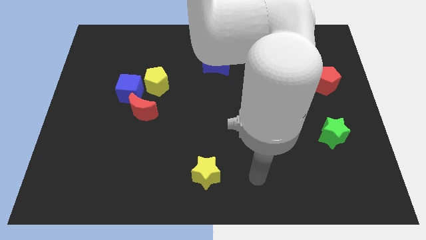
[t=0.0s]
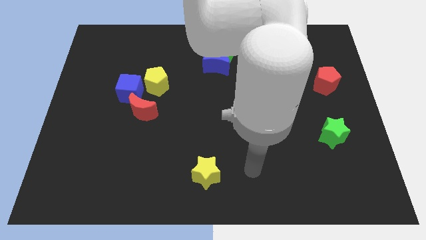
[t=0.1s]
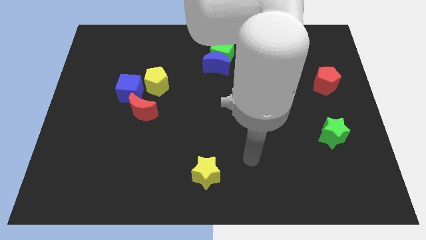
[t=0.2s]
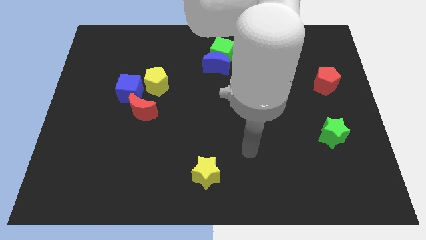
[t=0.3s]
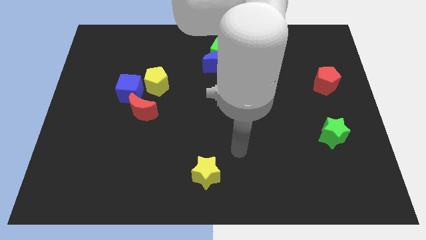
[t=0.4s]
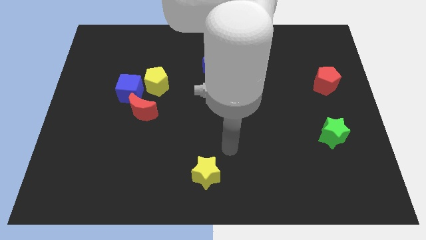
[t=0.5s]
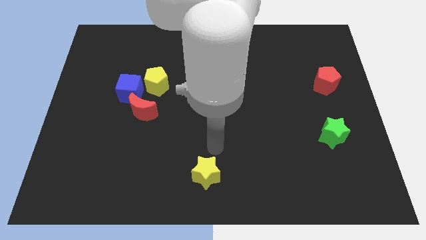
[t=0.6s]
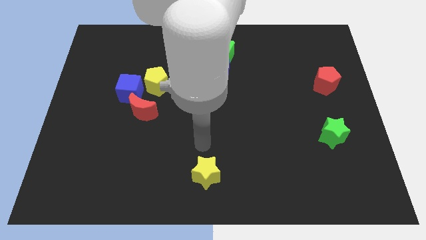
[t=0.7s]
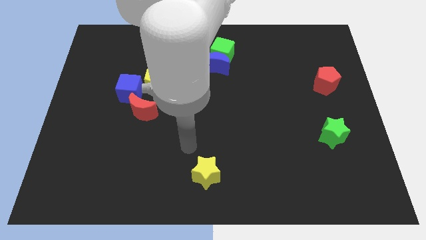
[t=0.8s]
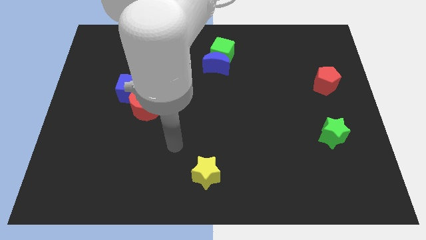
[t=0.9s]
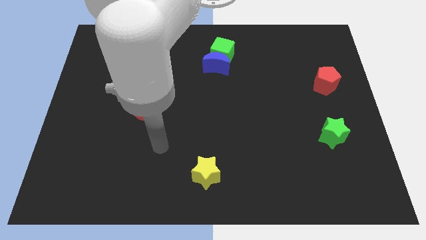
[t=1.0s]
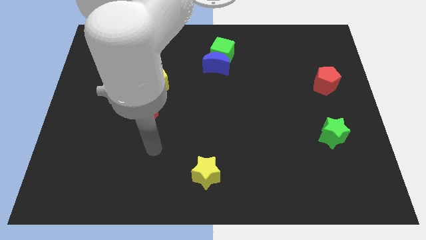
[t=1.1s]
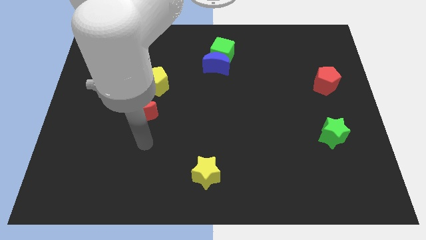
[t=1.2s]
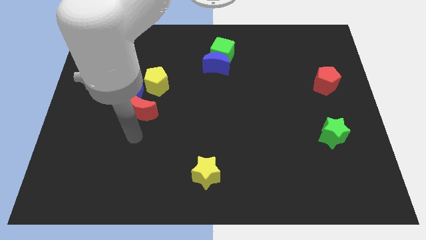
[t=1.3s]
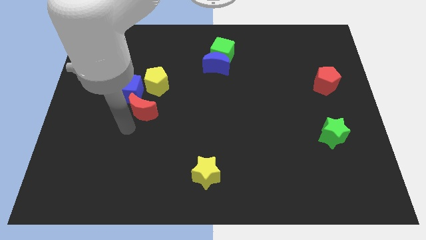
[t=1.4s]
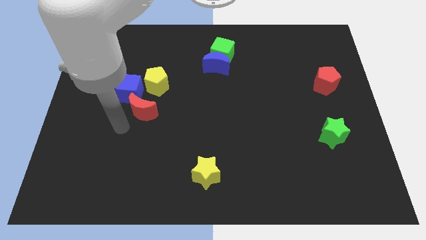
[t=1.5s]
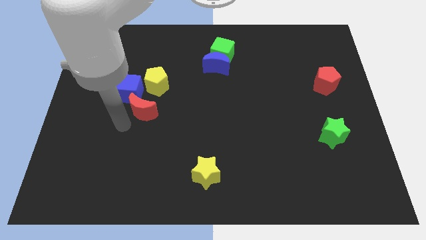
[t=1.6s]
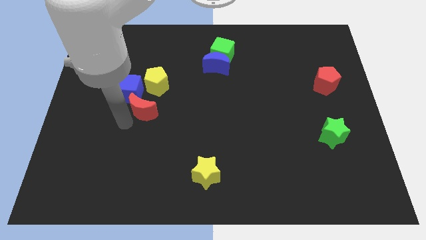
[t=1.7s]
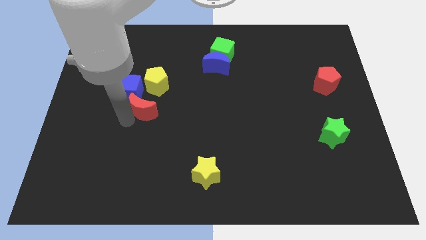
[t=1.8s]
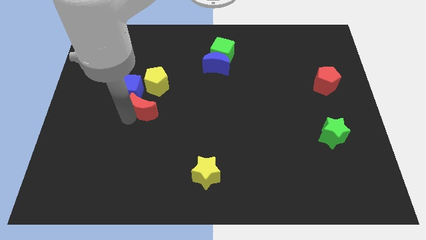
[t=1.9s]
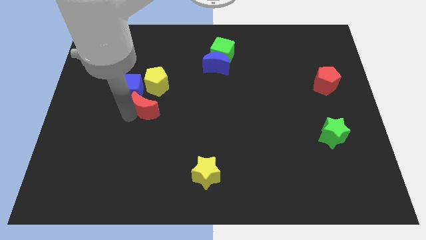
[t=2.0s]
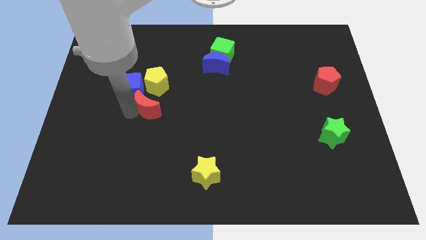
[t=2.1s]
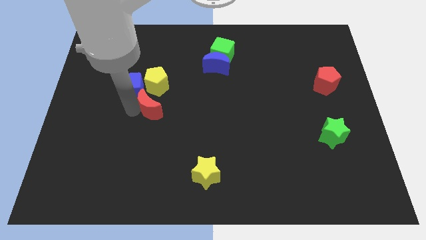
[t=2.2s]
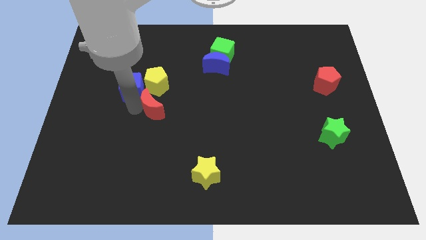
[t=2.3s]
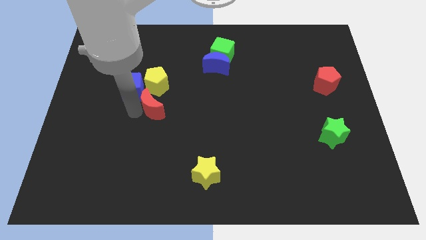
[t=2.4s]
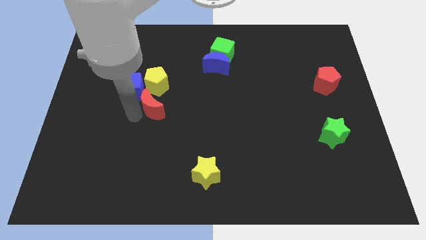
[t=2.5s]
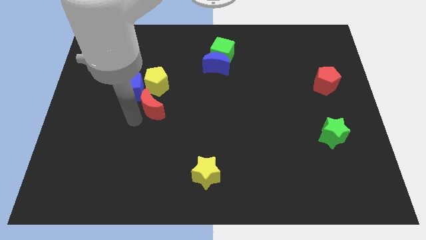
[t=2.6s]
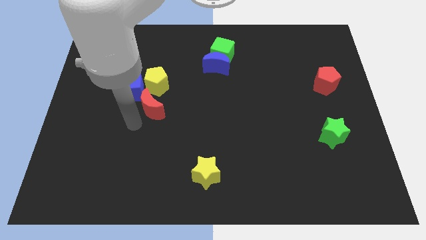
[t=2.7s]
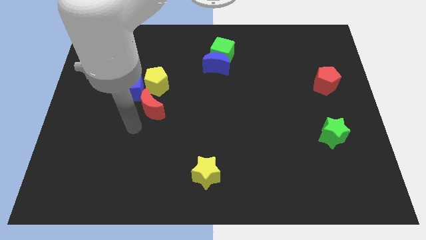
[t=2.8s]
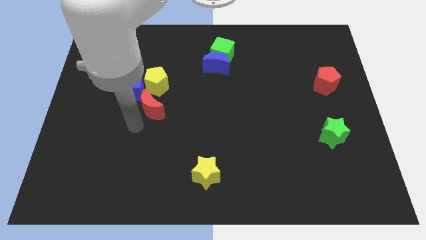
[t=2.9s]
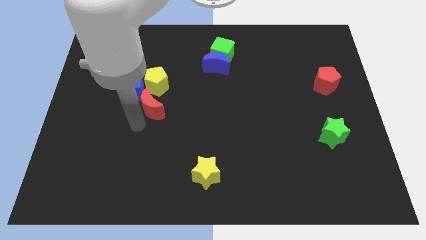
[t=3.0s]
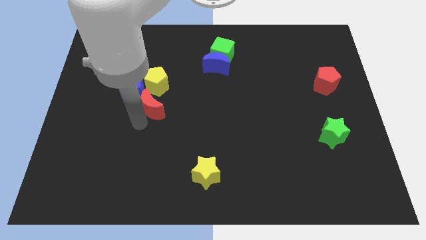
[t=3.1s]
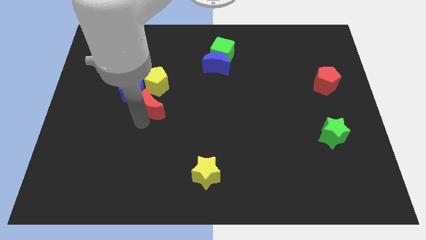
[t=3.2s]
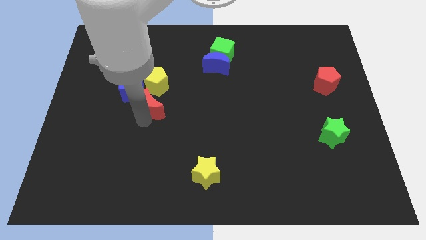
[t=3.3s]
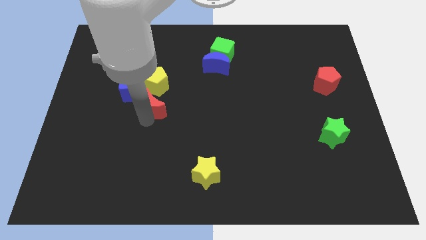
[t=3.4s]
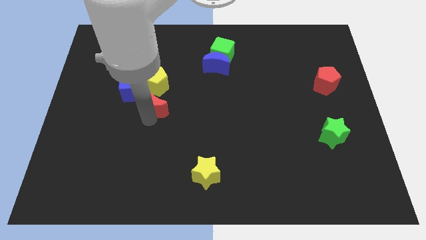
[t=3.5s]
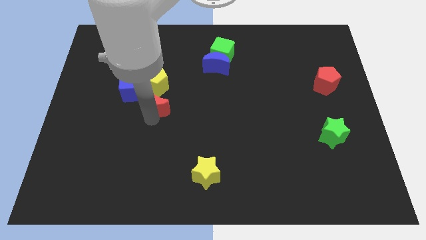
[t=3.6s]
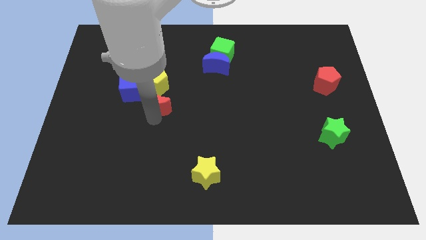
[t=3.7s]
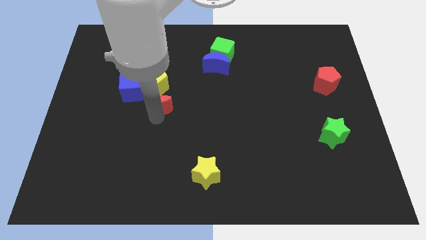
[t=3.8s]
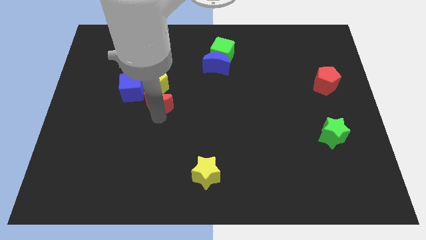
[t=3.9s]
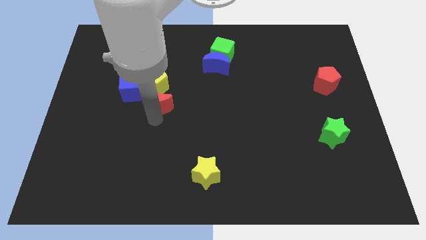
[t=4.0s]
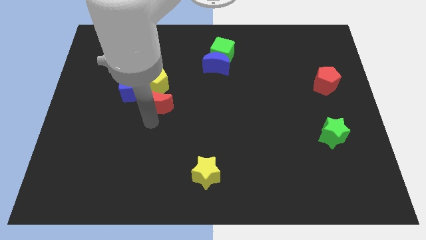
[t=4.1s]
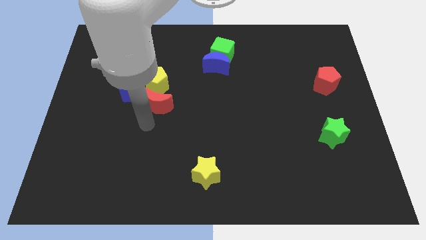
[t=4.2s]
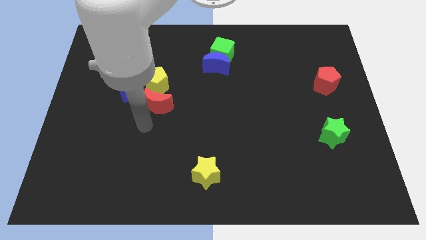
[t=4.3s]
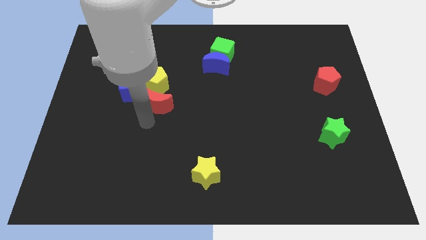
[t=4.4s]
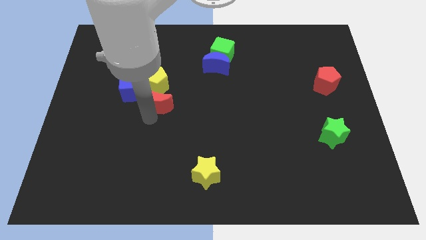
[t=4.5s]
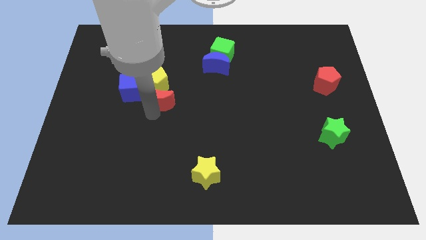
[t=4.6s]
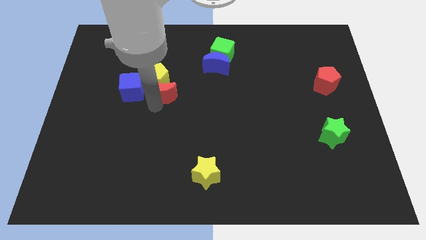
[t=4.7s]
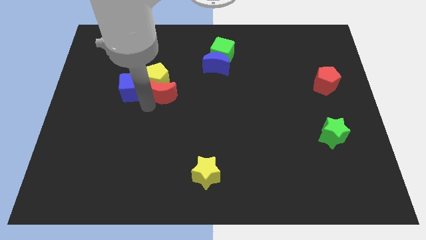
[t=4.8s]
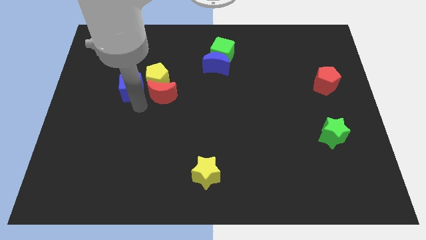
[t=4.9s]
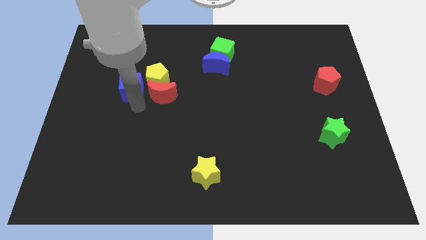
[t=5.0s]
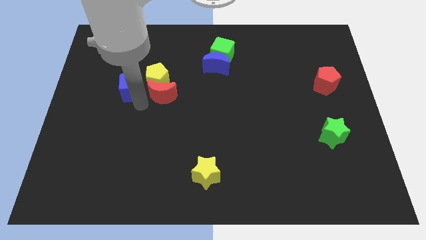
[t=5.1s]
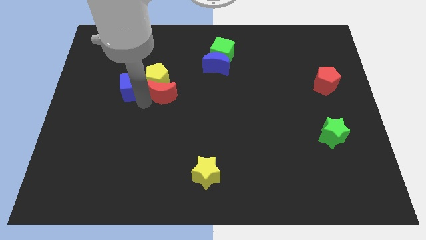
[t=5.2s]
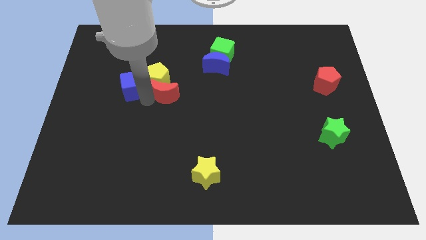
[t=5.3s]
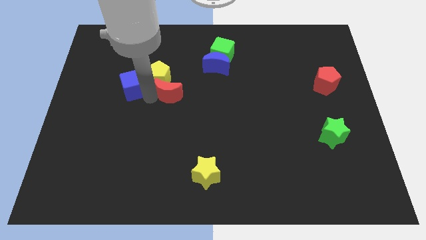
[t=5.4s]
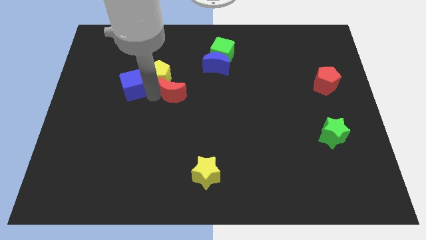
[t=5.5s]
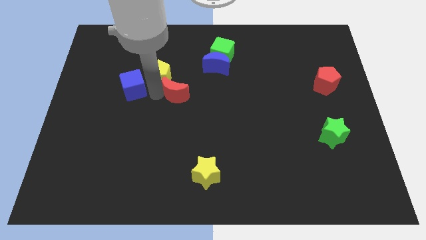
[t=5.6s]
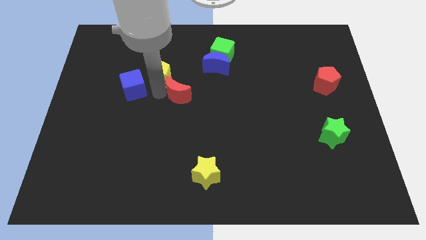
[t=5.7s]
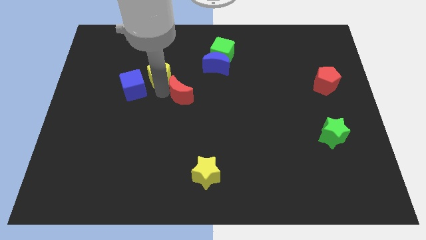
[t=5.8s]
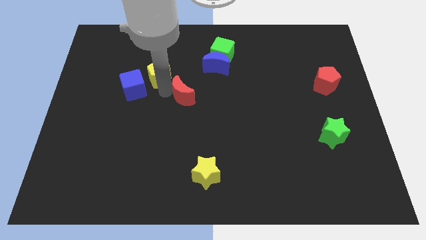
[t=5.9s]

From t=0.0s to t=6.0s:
move the red moon diagonally down and to the left of the blue moon
